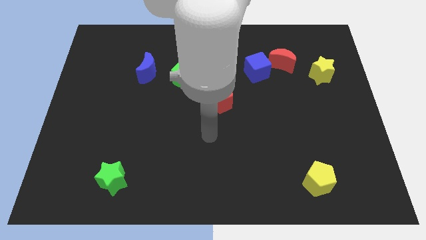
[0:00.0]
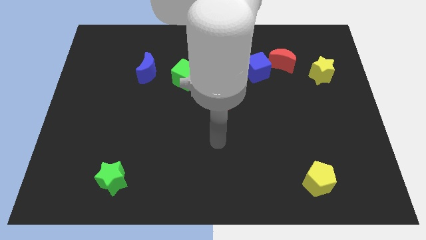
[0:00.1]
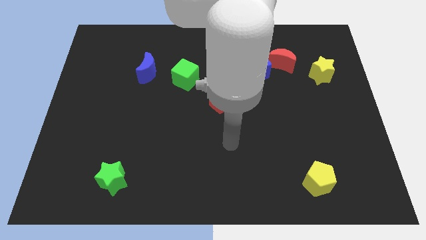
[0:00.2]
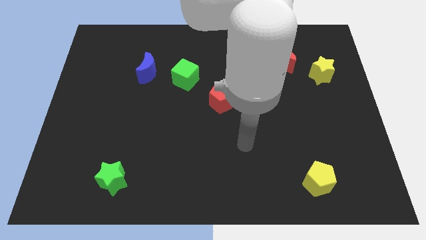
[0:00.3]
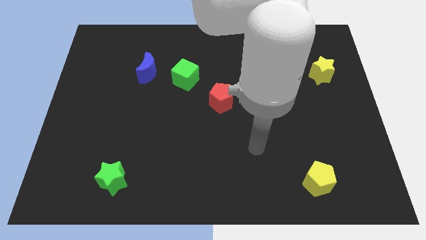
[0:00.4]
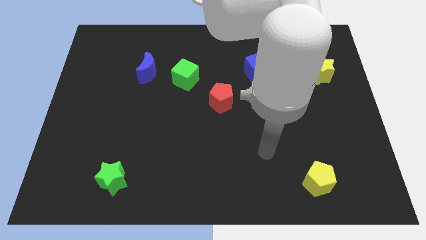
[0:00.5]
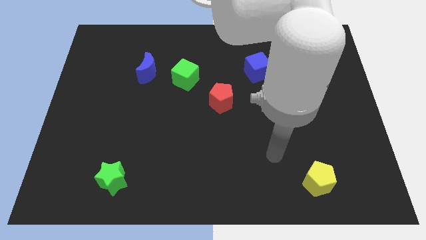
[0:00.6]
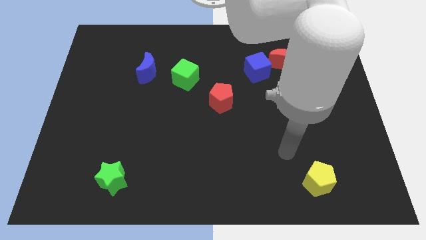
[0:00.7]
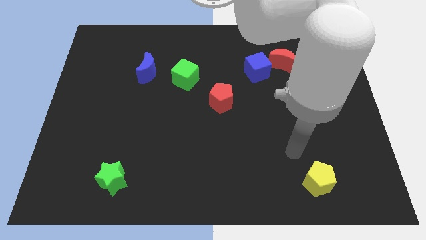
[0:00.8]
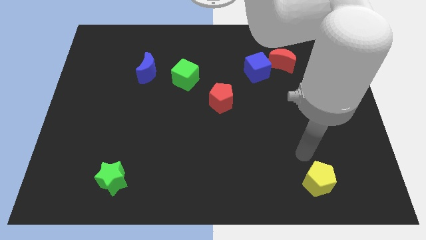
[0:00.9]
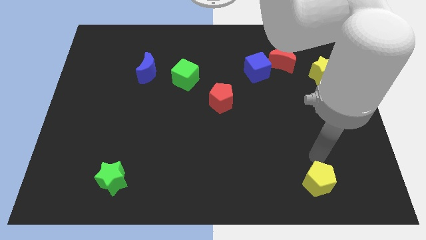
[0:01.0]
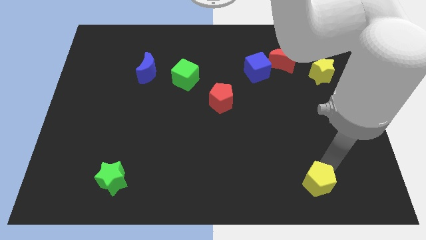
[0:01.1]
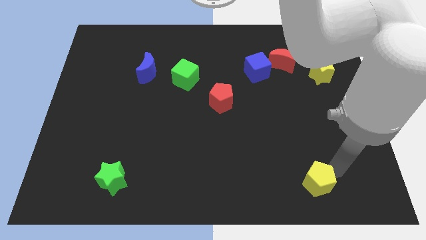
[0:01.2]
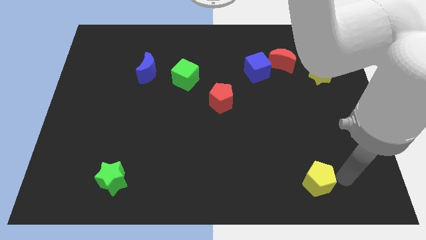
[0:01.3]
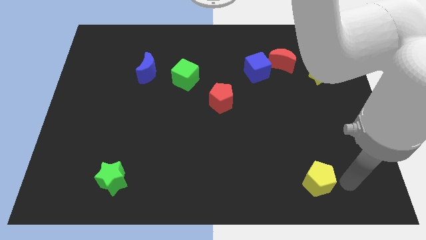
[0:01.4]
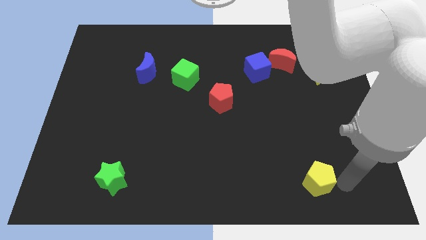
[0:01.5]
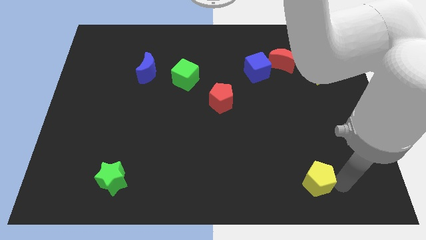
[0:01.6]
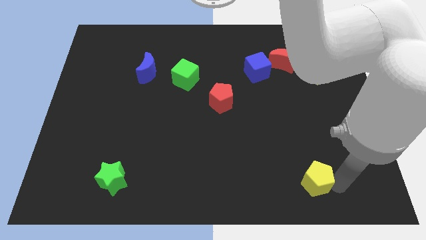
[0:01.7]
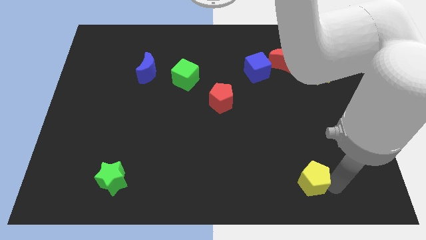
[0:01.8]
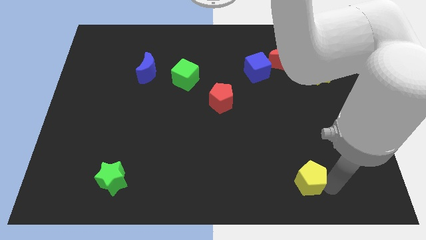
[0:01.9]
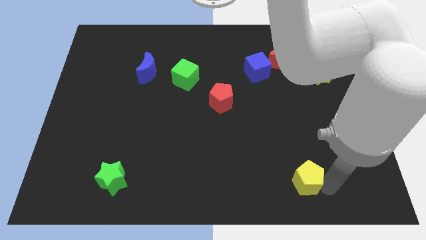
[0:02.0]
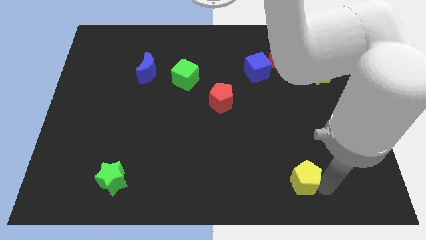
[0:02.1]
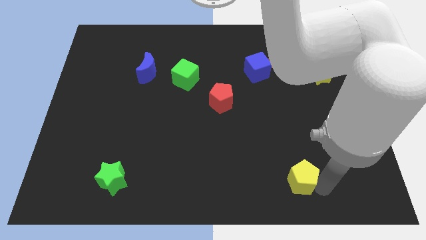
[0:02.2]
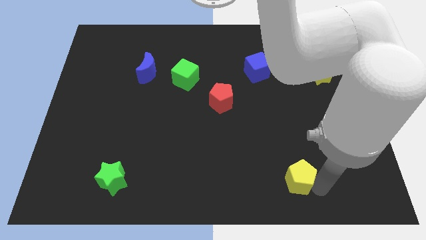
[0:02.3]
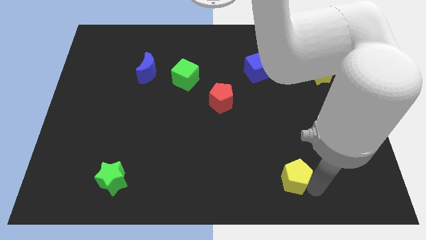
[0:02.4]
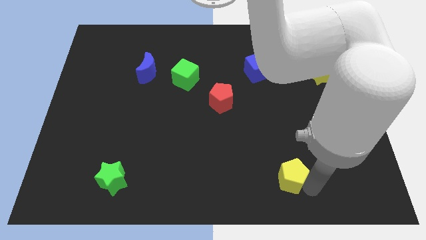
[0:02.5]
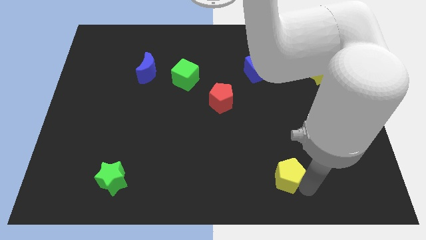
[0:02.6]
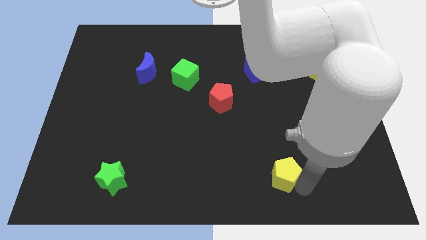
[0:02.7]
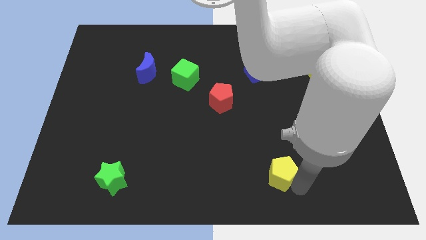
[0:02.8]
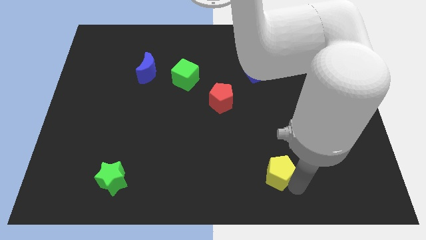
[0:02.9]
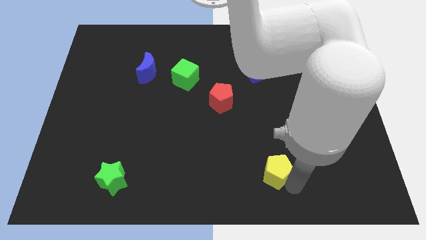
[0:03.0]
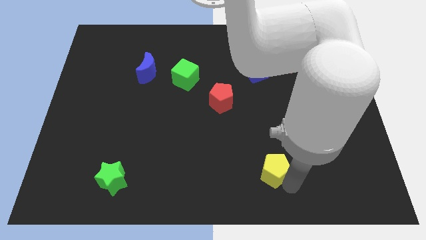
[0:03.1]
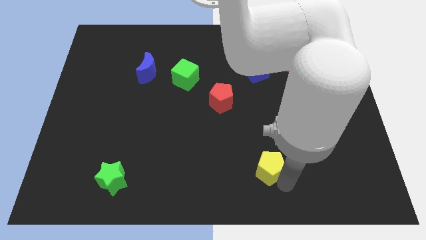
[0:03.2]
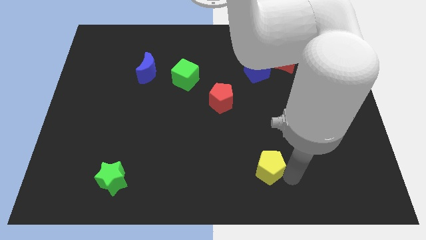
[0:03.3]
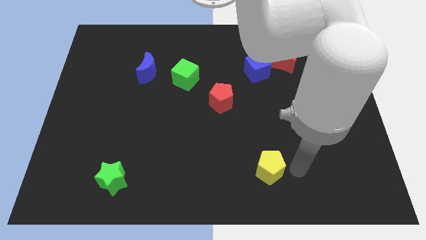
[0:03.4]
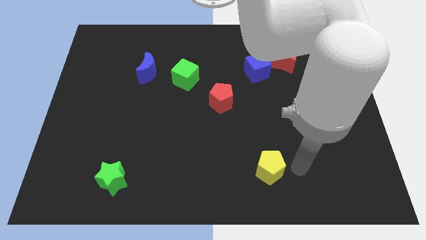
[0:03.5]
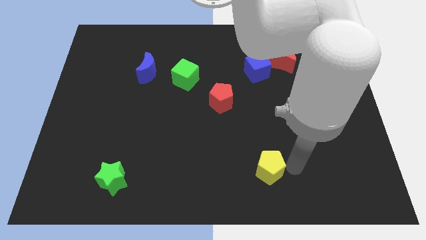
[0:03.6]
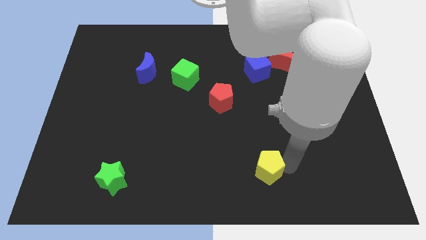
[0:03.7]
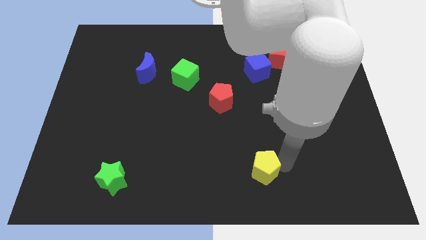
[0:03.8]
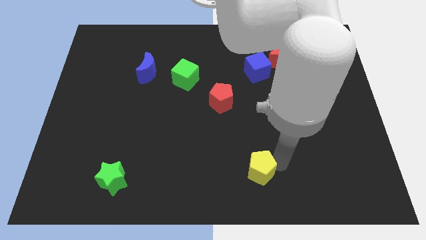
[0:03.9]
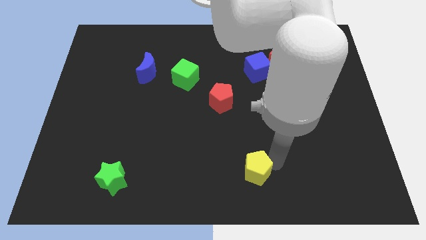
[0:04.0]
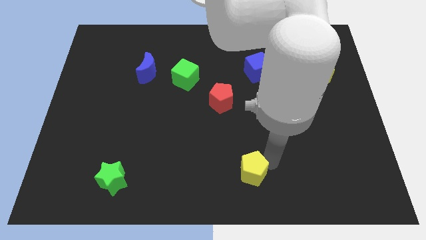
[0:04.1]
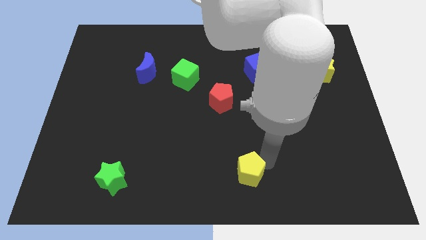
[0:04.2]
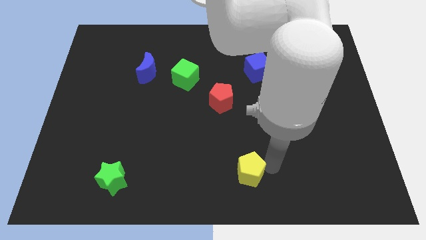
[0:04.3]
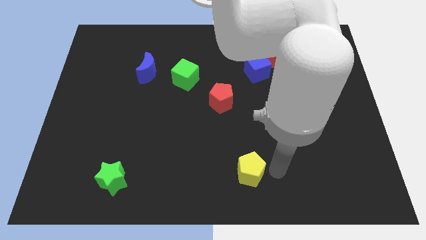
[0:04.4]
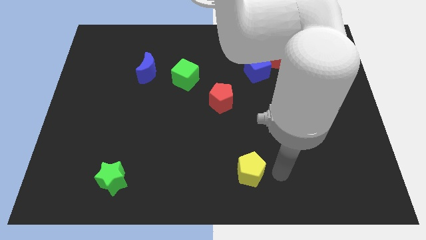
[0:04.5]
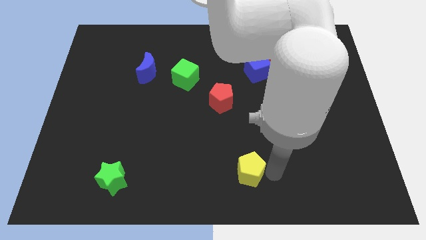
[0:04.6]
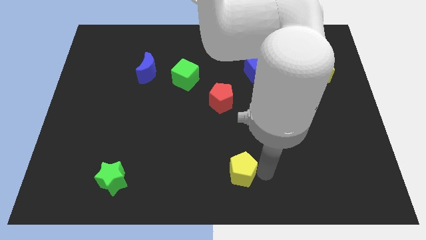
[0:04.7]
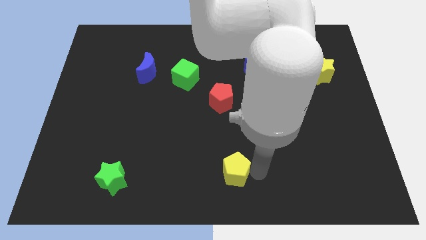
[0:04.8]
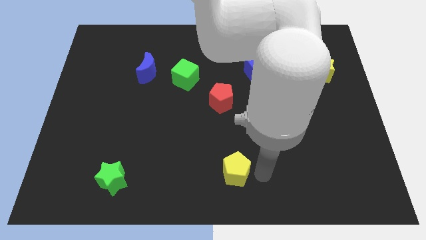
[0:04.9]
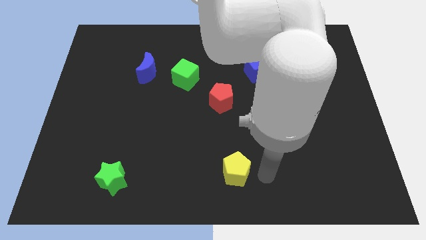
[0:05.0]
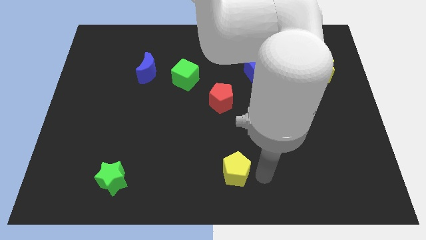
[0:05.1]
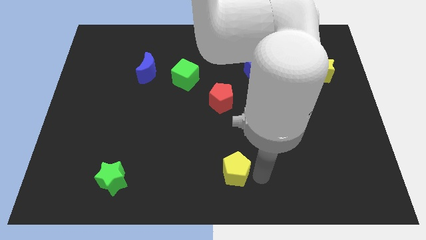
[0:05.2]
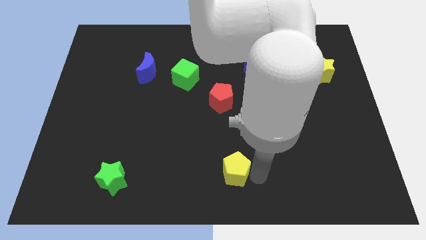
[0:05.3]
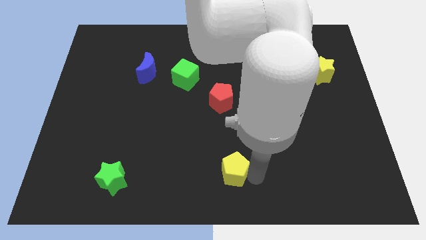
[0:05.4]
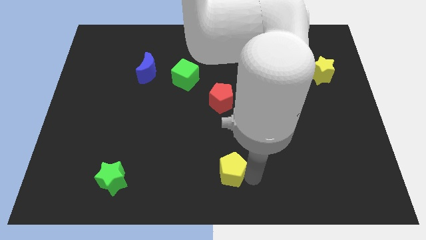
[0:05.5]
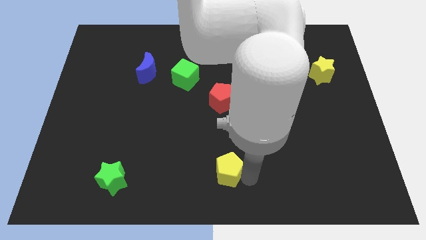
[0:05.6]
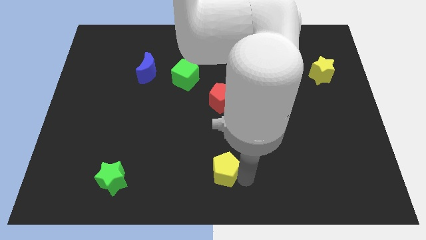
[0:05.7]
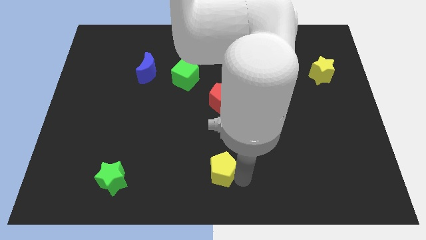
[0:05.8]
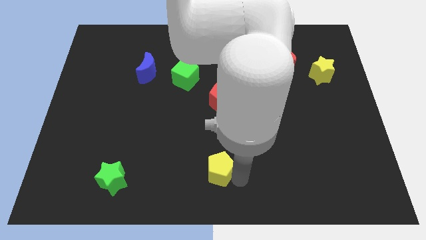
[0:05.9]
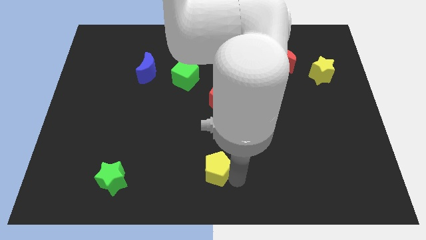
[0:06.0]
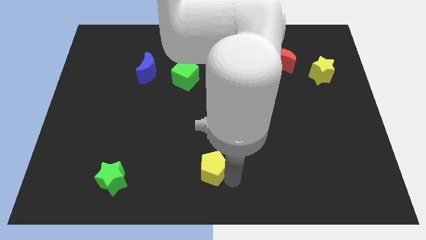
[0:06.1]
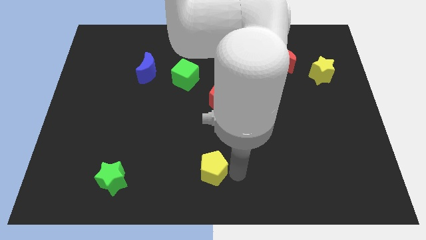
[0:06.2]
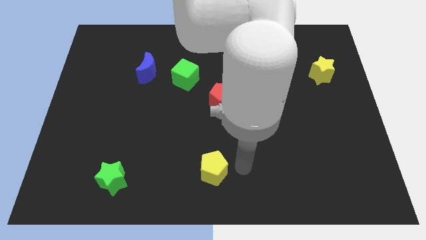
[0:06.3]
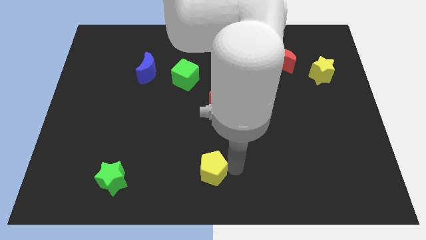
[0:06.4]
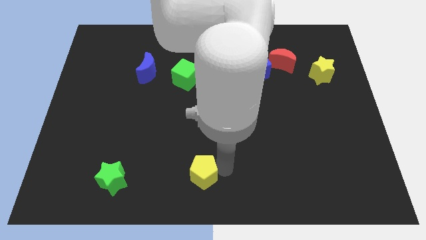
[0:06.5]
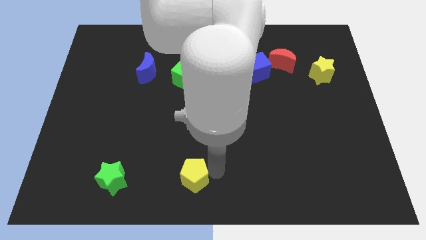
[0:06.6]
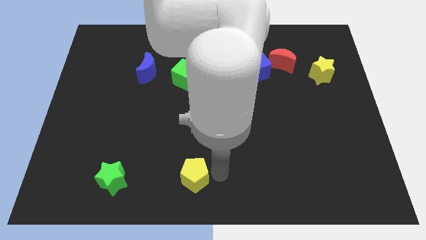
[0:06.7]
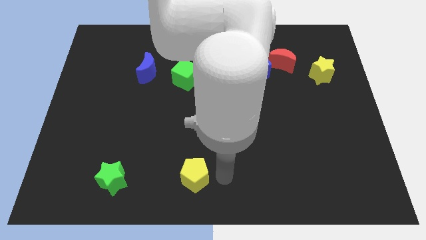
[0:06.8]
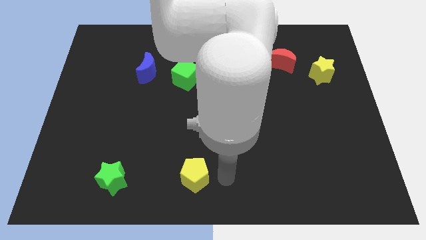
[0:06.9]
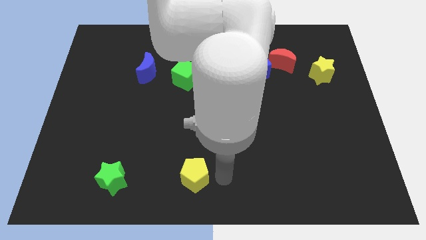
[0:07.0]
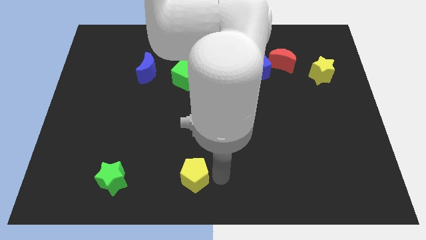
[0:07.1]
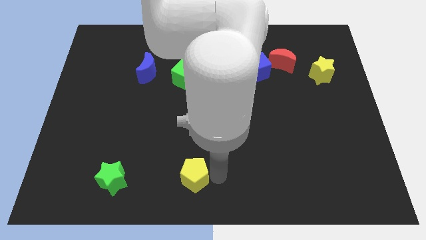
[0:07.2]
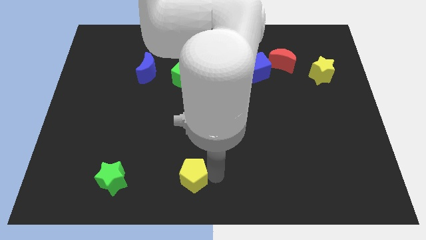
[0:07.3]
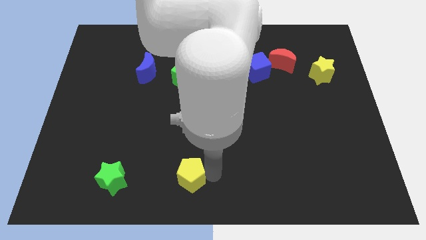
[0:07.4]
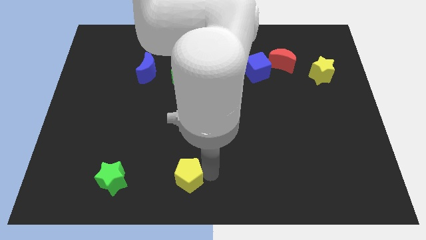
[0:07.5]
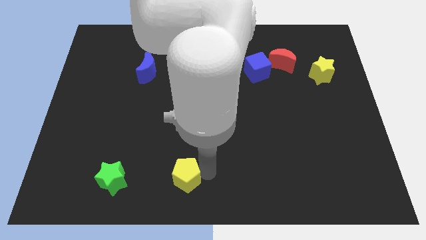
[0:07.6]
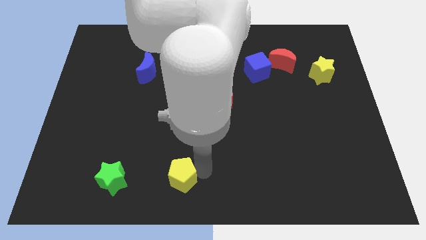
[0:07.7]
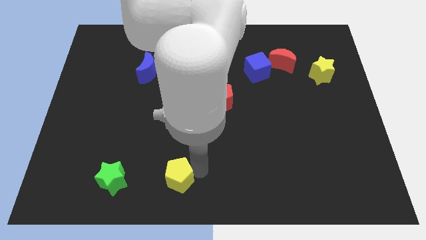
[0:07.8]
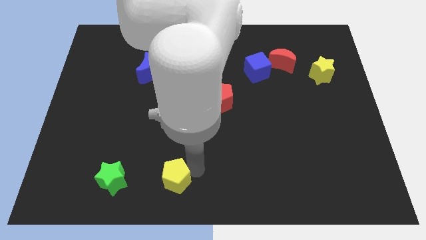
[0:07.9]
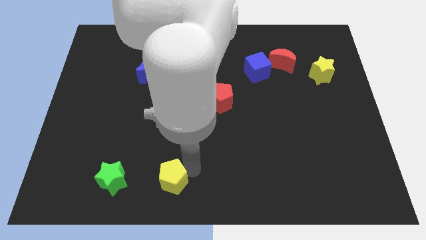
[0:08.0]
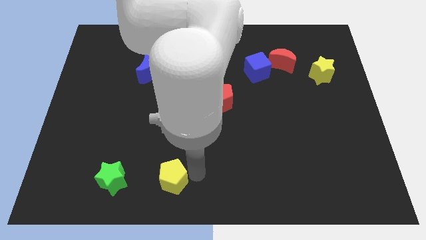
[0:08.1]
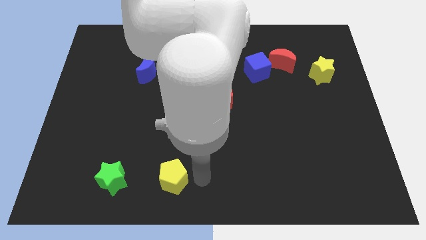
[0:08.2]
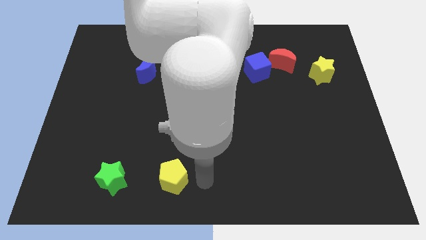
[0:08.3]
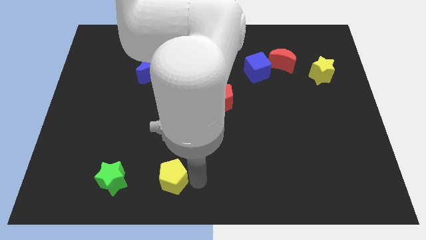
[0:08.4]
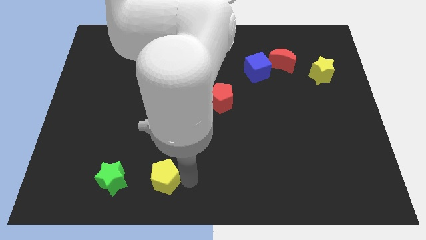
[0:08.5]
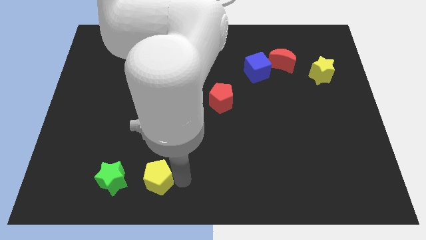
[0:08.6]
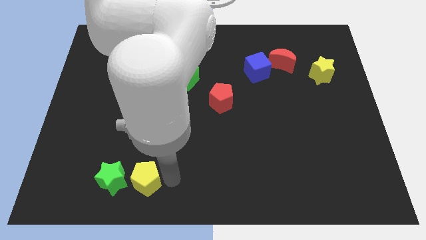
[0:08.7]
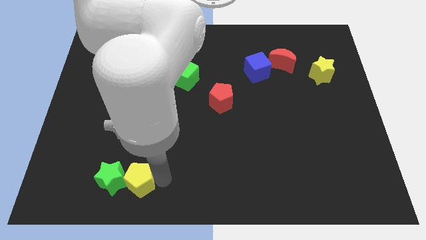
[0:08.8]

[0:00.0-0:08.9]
push the yellow pentagon to the green star
